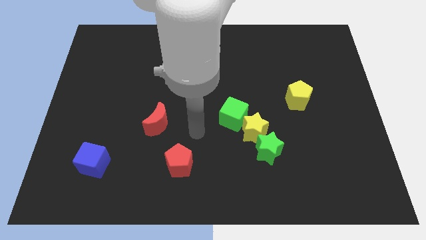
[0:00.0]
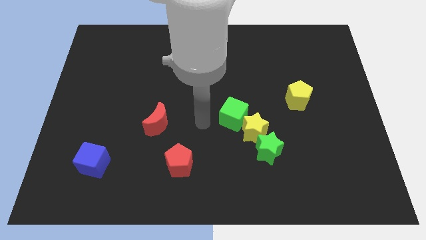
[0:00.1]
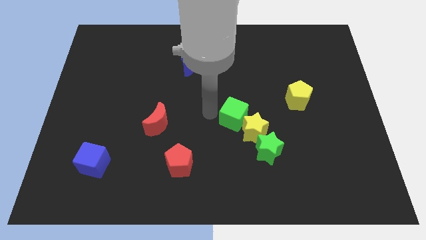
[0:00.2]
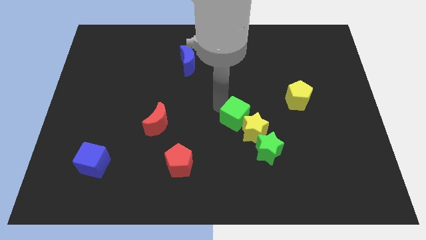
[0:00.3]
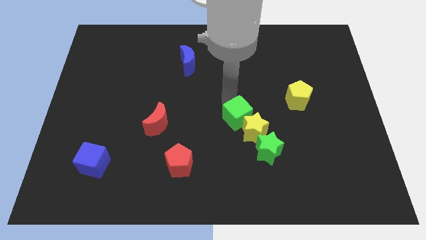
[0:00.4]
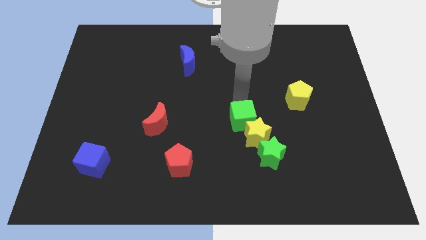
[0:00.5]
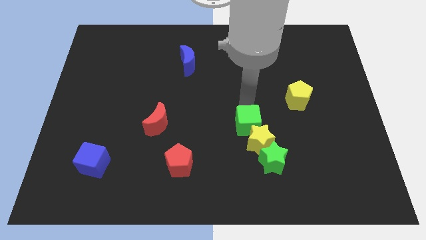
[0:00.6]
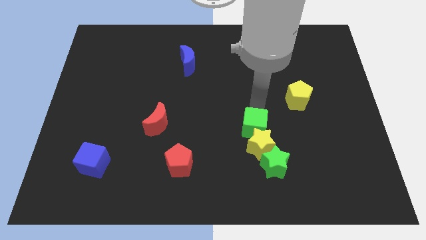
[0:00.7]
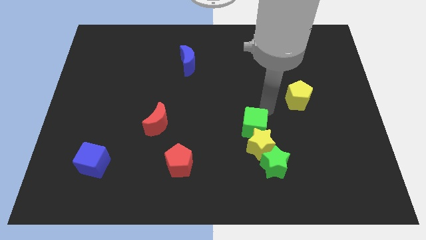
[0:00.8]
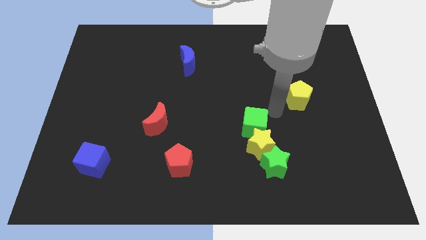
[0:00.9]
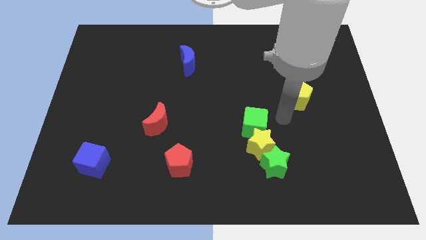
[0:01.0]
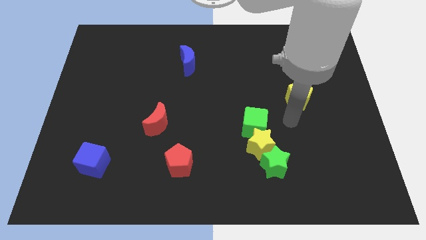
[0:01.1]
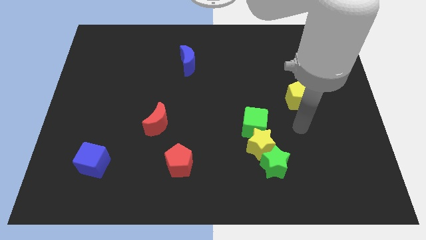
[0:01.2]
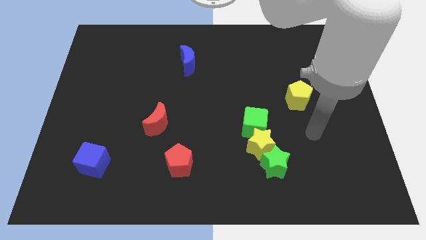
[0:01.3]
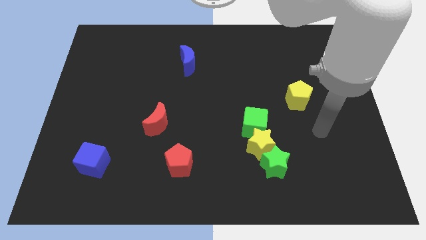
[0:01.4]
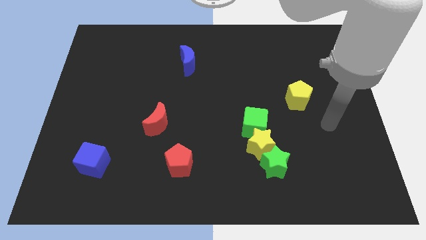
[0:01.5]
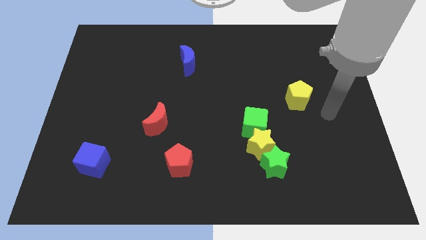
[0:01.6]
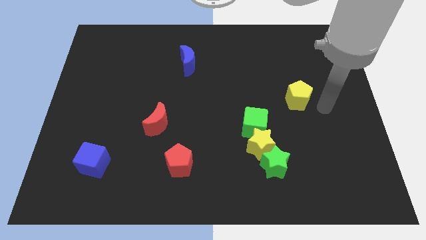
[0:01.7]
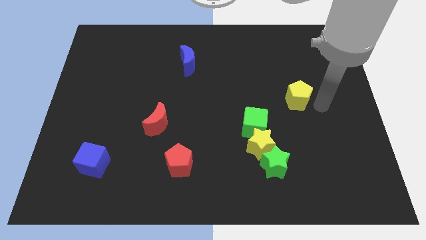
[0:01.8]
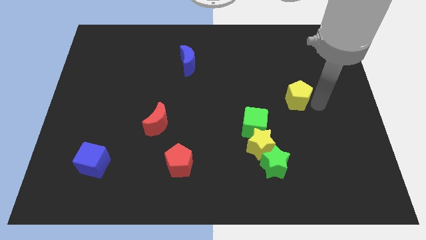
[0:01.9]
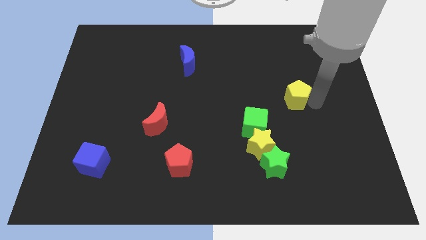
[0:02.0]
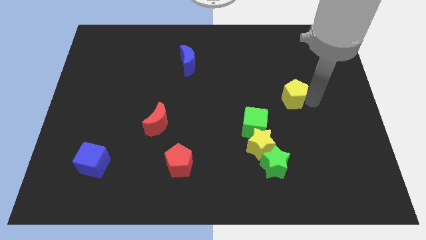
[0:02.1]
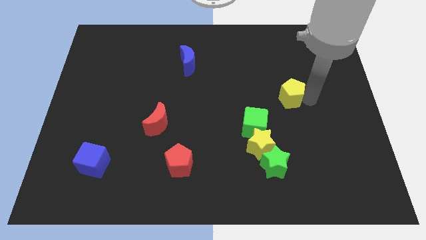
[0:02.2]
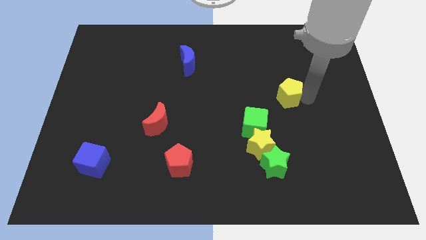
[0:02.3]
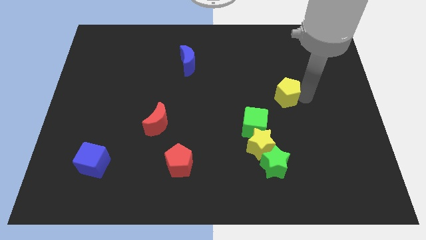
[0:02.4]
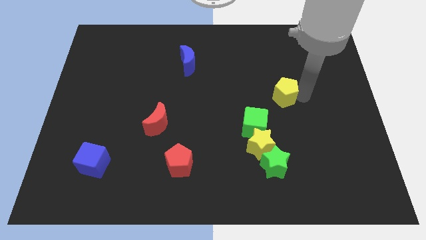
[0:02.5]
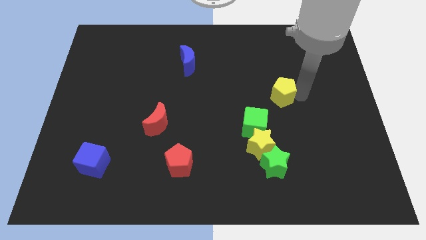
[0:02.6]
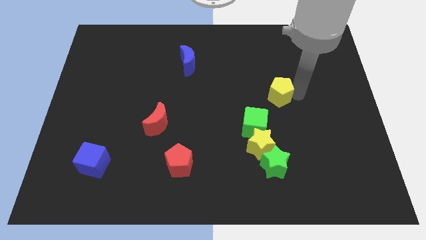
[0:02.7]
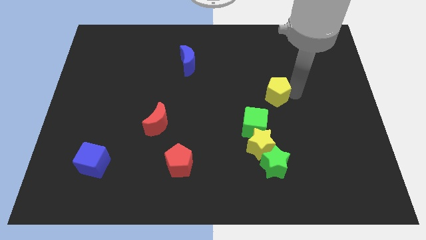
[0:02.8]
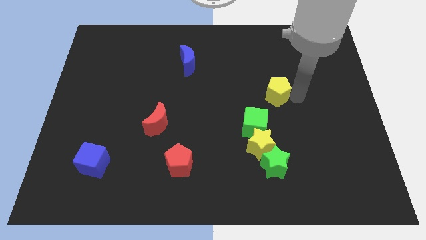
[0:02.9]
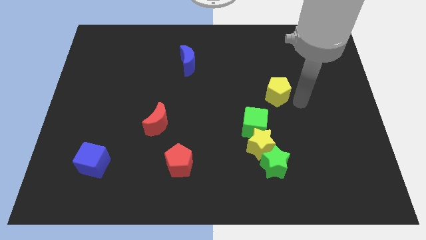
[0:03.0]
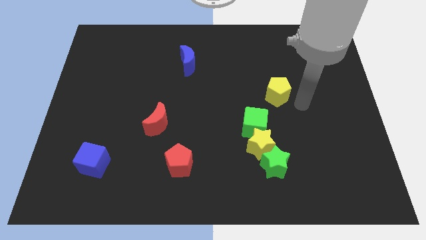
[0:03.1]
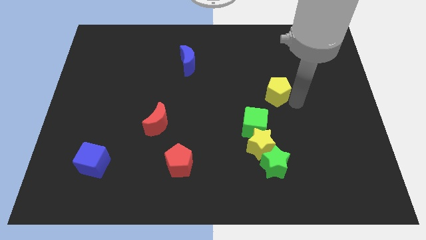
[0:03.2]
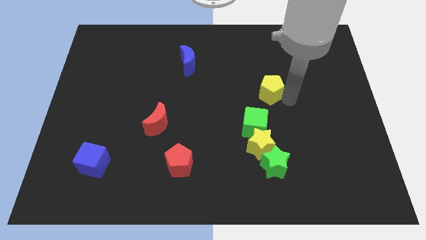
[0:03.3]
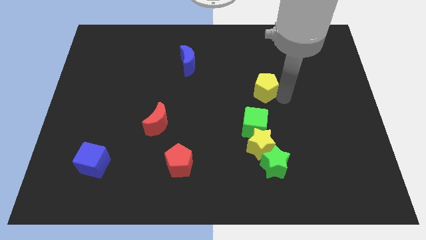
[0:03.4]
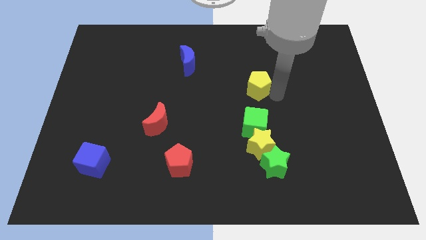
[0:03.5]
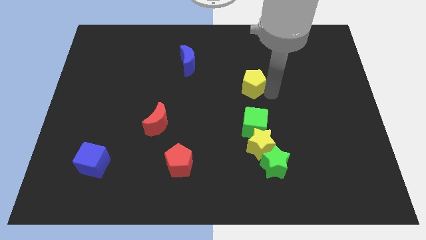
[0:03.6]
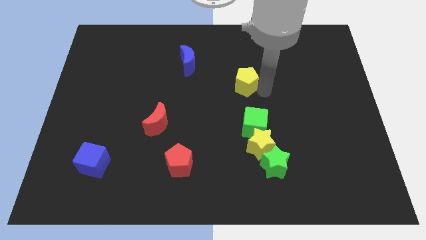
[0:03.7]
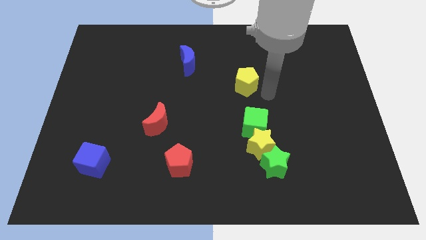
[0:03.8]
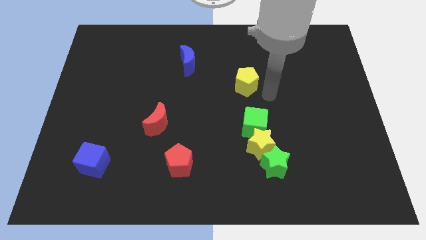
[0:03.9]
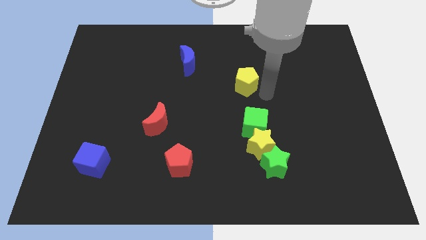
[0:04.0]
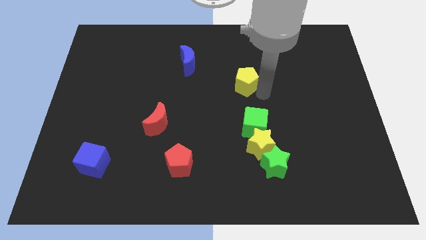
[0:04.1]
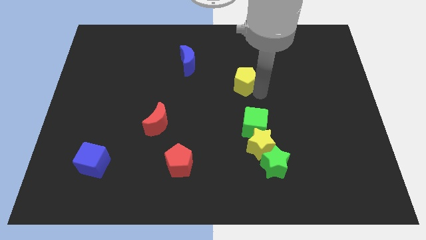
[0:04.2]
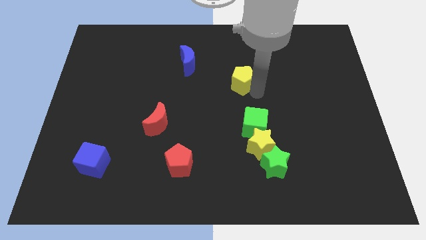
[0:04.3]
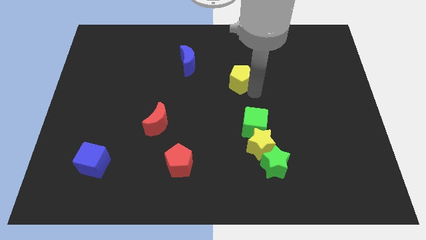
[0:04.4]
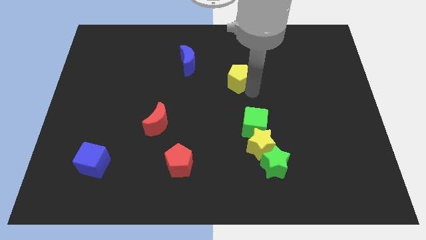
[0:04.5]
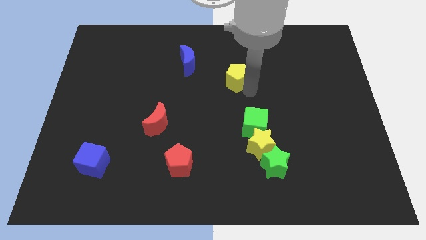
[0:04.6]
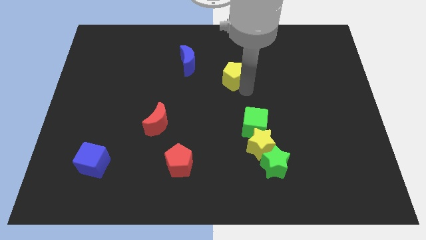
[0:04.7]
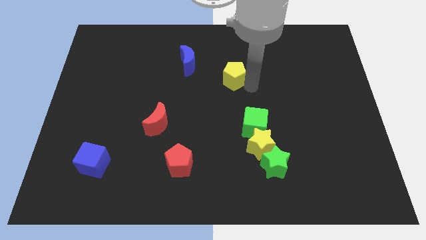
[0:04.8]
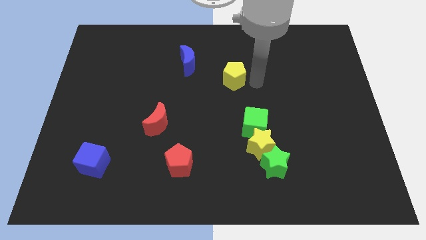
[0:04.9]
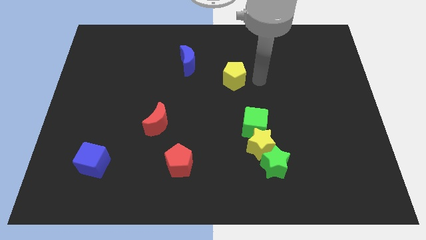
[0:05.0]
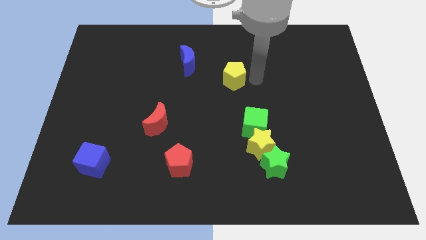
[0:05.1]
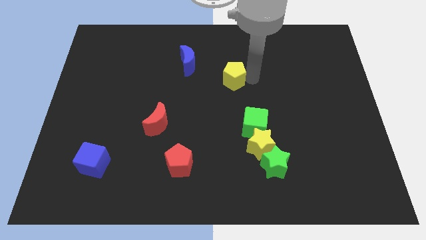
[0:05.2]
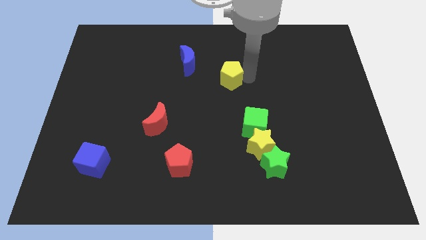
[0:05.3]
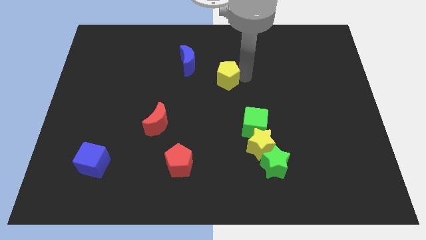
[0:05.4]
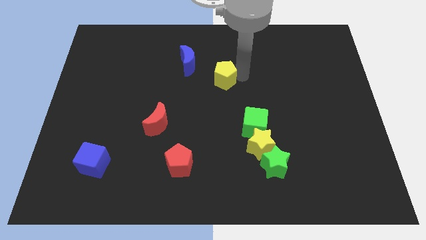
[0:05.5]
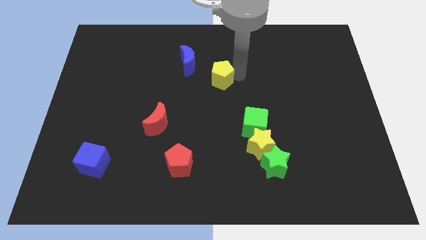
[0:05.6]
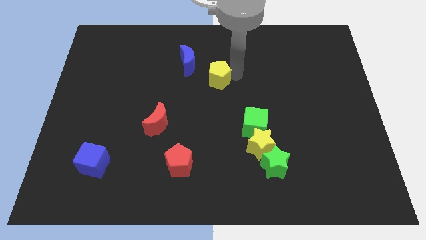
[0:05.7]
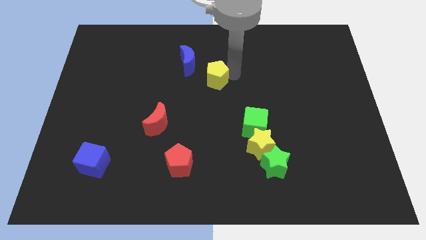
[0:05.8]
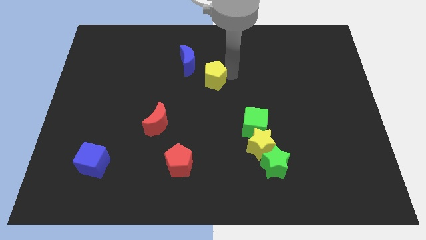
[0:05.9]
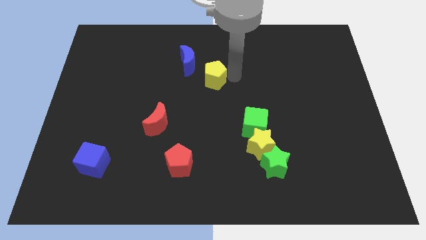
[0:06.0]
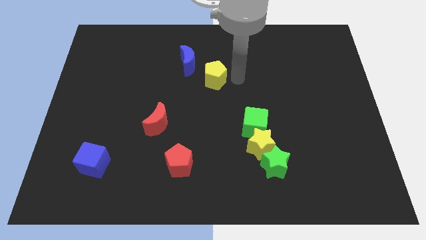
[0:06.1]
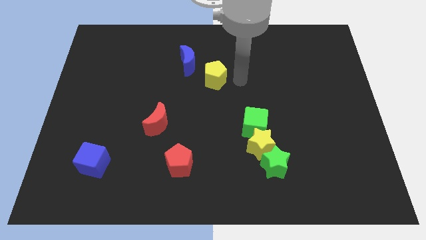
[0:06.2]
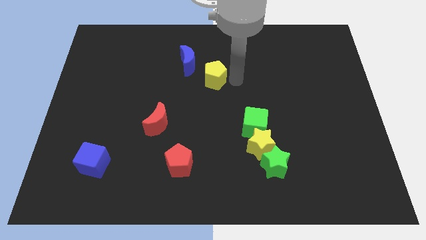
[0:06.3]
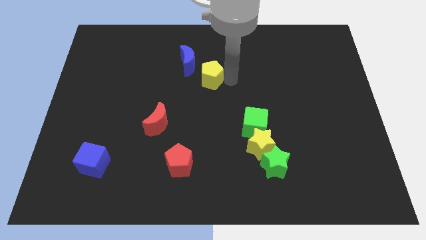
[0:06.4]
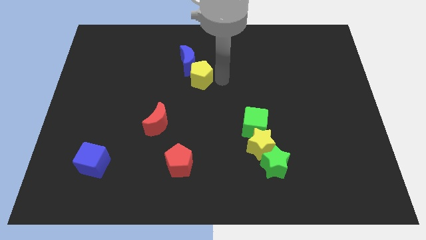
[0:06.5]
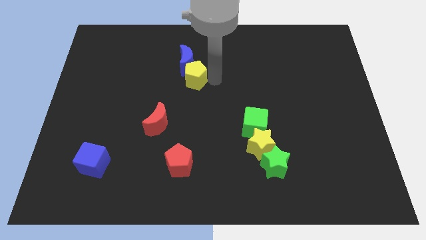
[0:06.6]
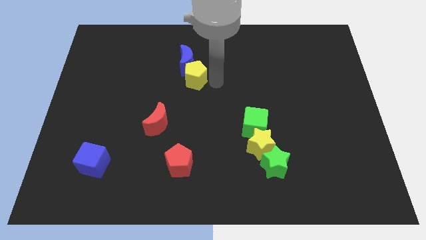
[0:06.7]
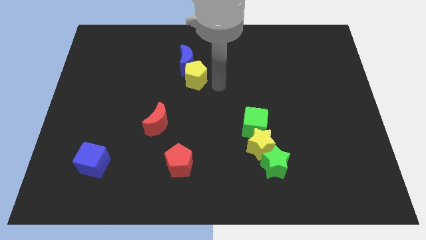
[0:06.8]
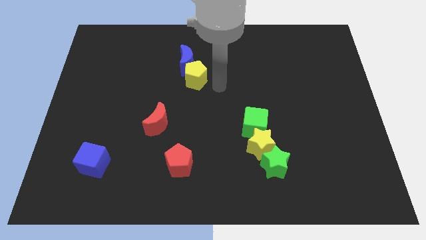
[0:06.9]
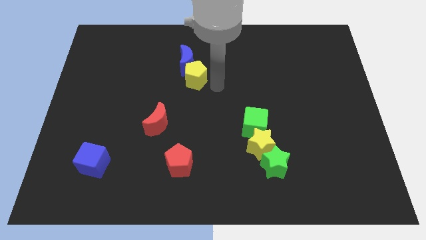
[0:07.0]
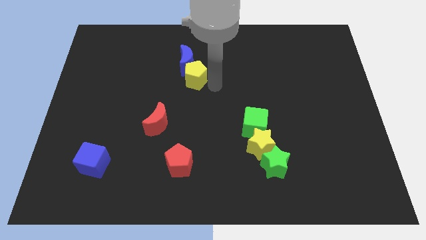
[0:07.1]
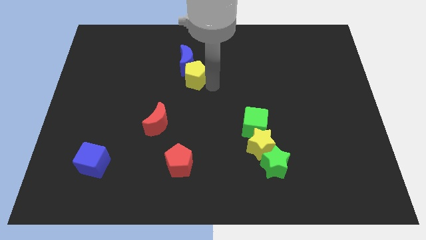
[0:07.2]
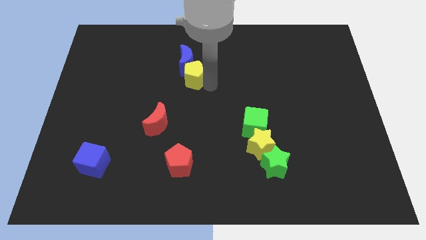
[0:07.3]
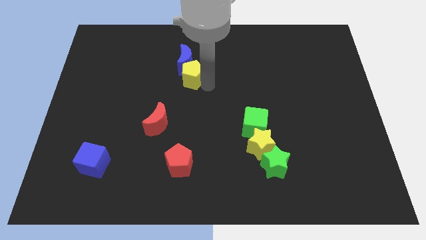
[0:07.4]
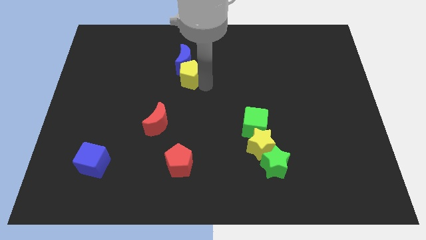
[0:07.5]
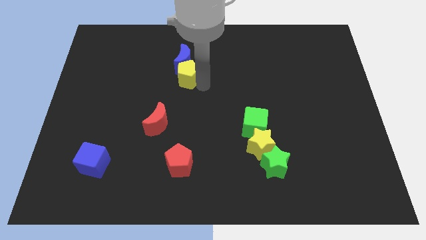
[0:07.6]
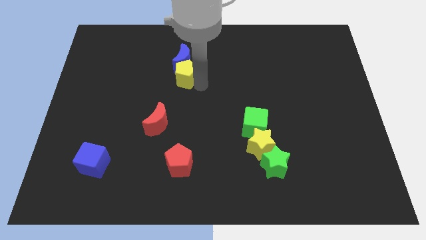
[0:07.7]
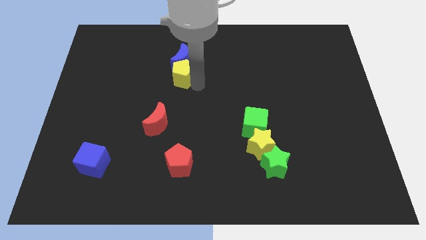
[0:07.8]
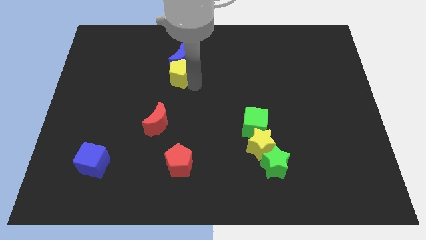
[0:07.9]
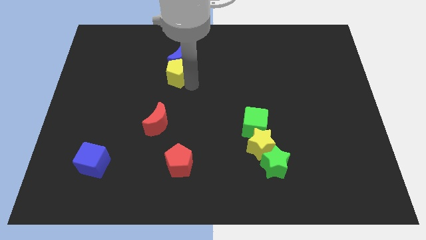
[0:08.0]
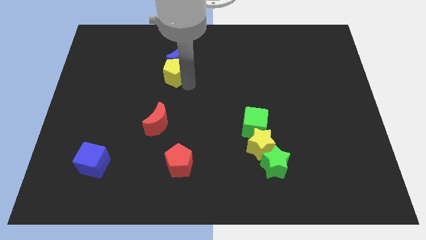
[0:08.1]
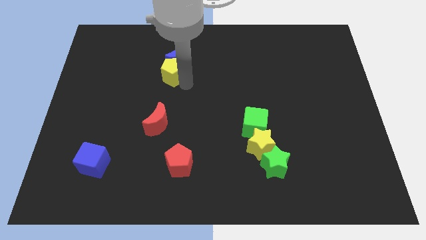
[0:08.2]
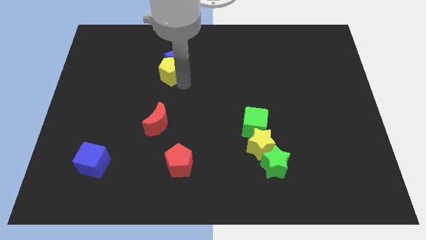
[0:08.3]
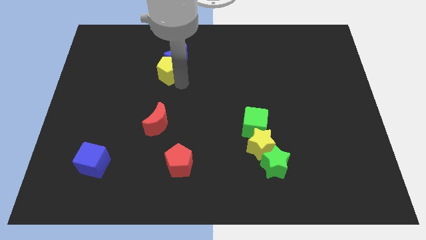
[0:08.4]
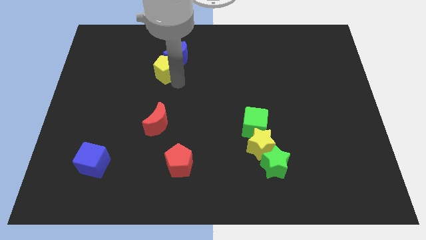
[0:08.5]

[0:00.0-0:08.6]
put the yellow pentagon just left of the blue moon
